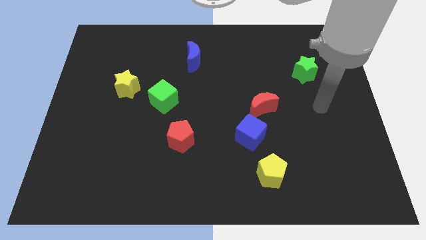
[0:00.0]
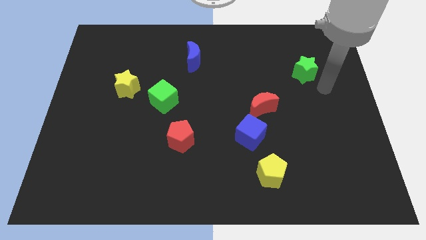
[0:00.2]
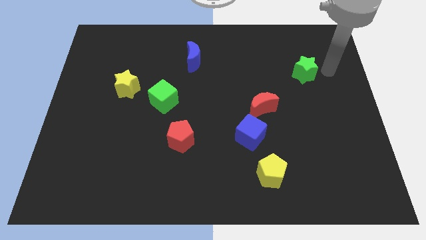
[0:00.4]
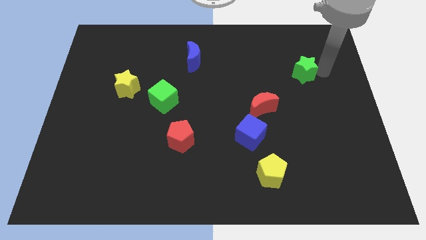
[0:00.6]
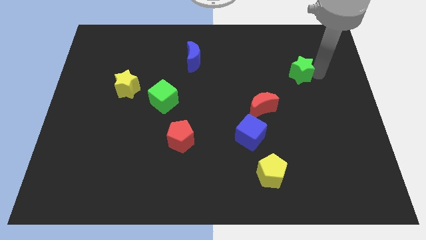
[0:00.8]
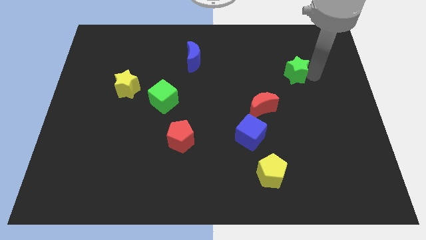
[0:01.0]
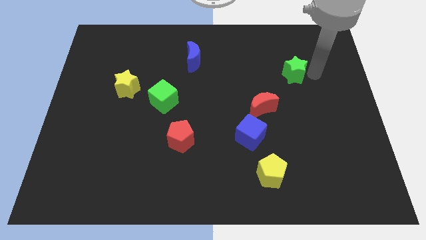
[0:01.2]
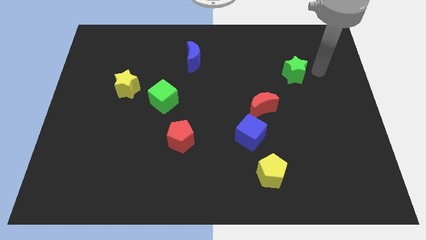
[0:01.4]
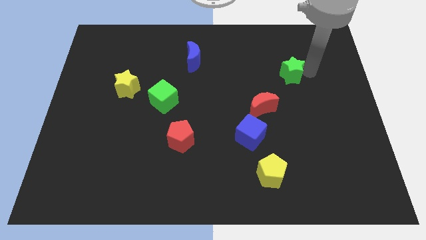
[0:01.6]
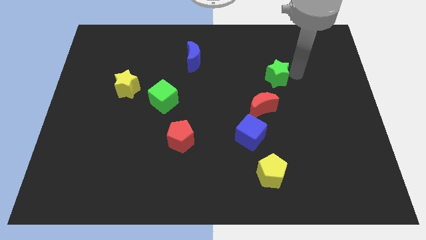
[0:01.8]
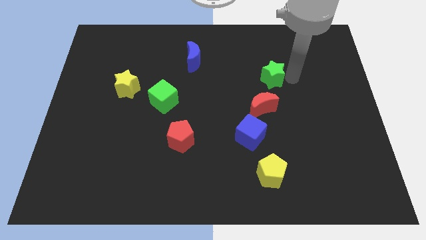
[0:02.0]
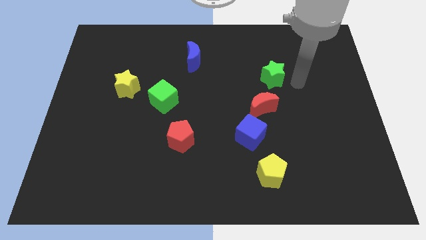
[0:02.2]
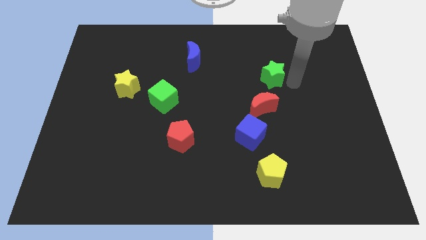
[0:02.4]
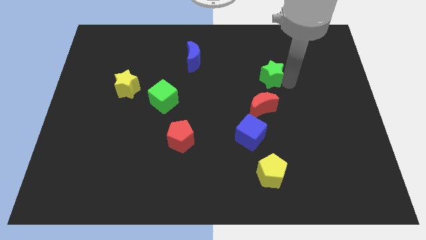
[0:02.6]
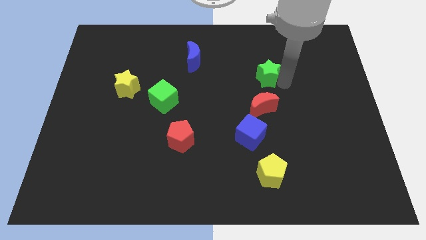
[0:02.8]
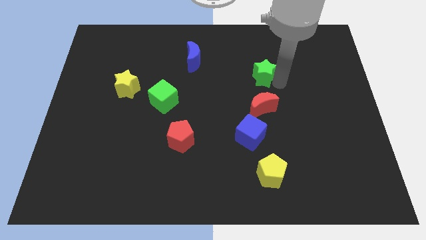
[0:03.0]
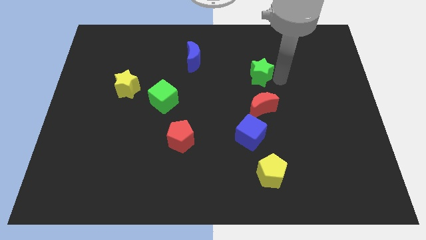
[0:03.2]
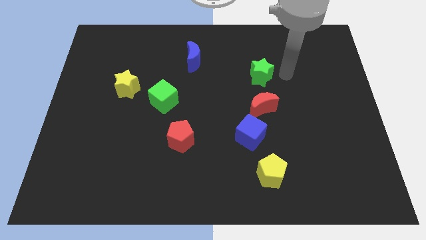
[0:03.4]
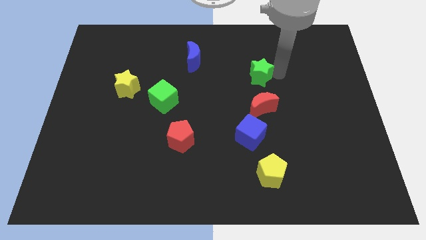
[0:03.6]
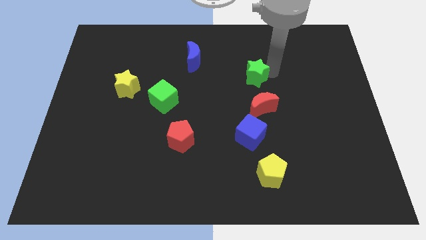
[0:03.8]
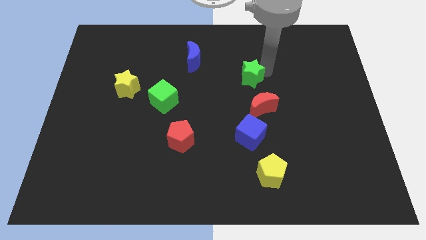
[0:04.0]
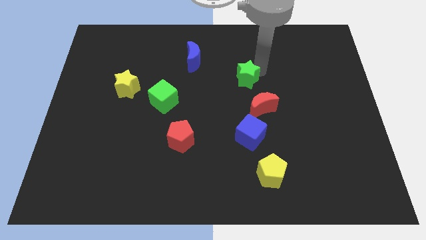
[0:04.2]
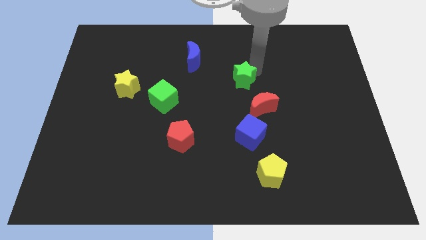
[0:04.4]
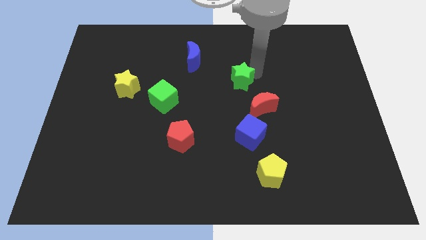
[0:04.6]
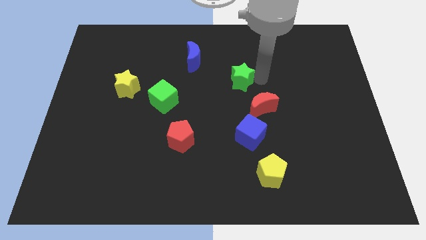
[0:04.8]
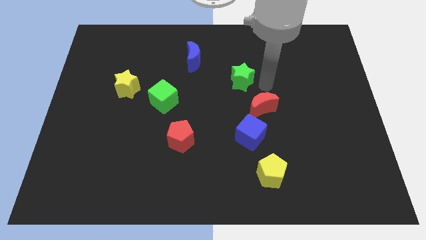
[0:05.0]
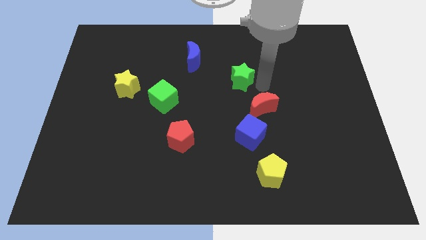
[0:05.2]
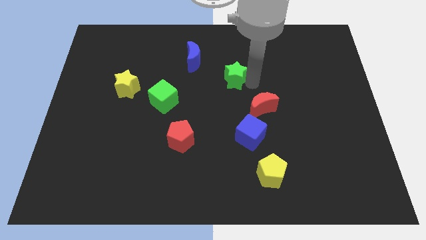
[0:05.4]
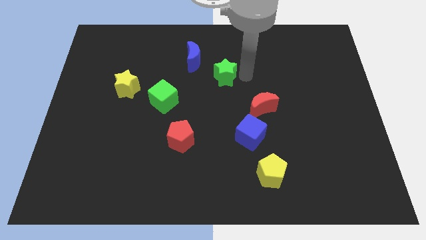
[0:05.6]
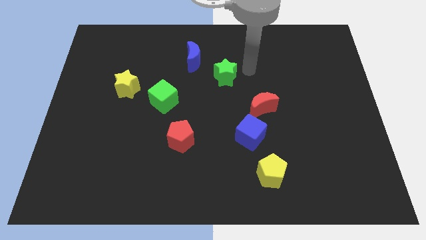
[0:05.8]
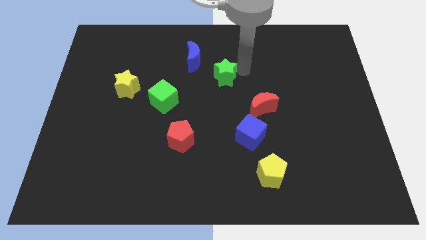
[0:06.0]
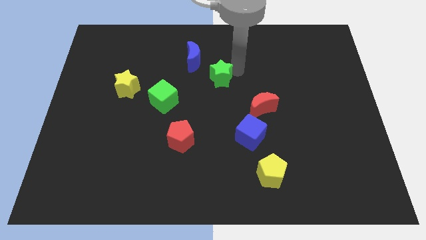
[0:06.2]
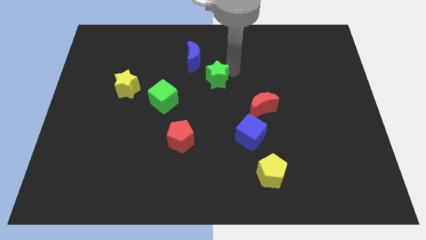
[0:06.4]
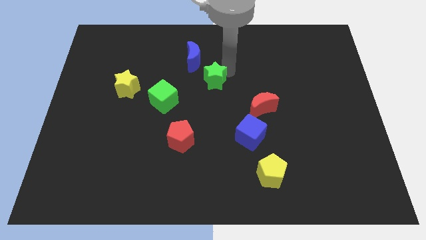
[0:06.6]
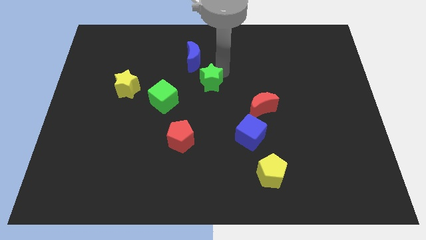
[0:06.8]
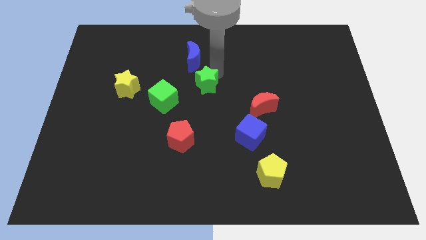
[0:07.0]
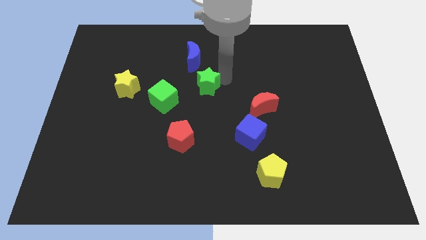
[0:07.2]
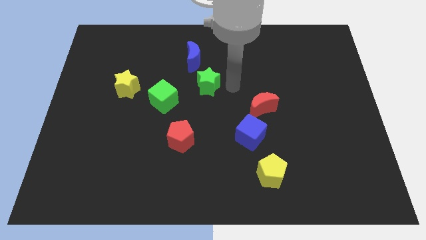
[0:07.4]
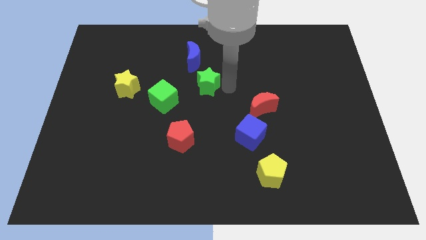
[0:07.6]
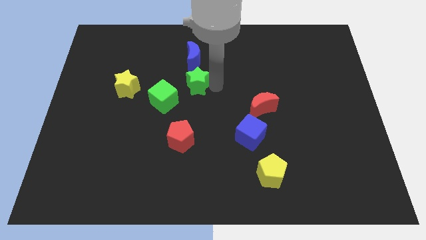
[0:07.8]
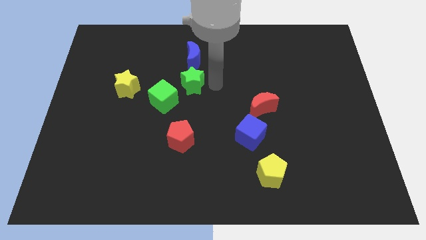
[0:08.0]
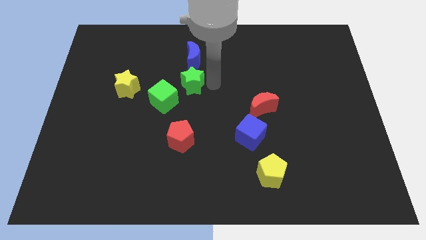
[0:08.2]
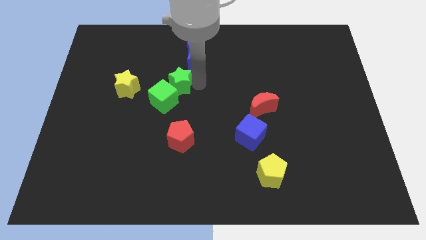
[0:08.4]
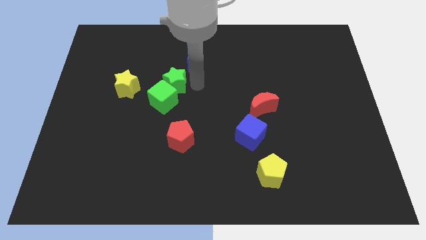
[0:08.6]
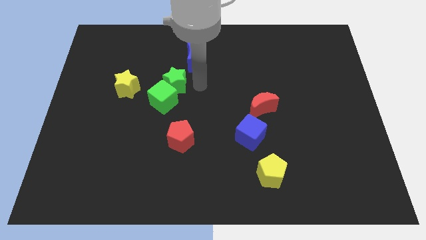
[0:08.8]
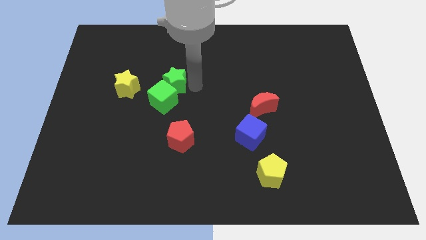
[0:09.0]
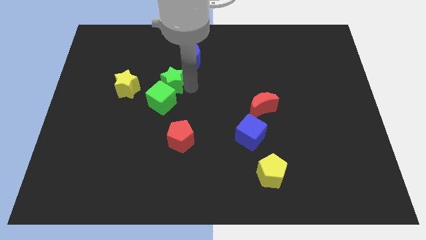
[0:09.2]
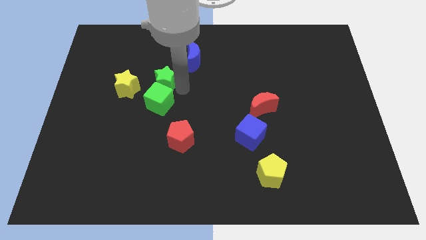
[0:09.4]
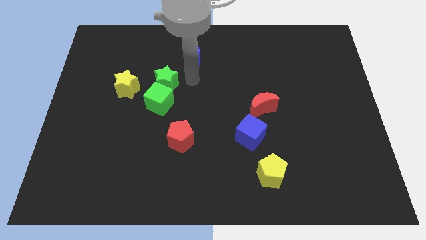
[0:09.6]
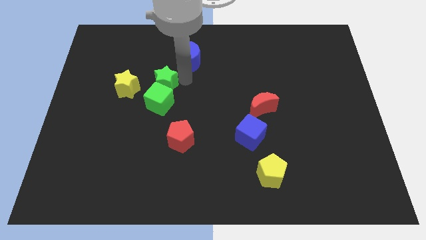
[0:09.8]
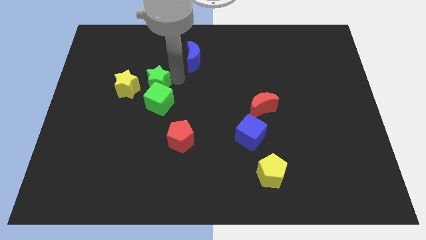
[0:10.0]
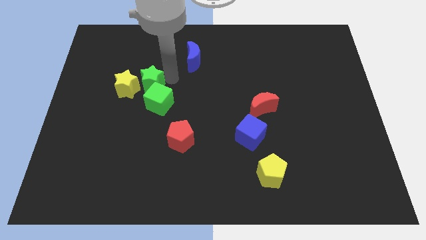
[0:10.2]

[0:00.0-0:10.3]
put the green star towards the yellow star

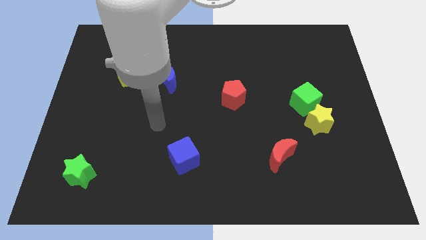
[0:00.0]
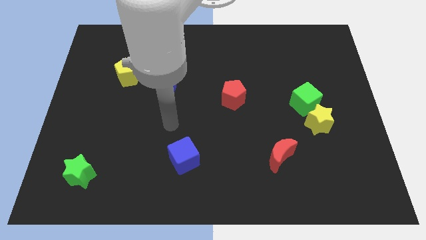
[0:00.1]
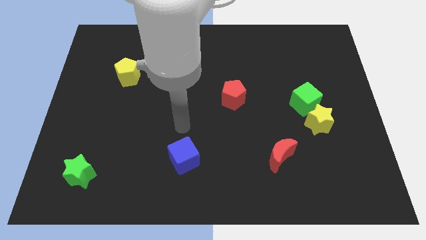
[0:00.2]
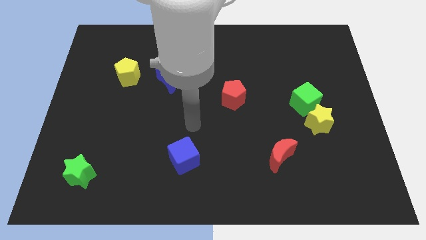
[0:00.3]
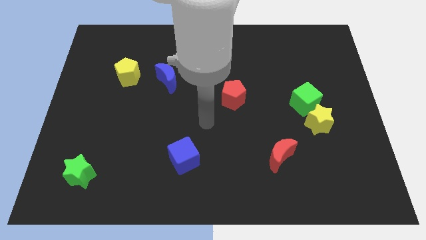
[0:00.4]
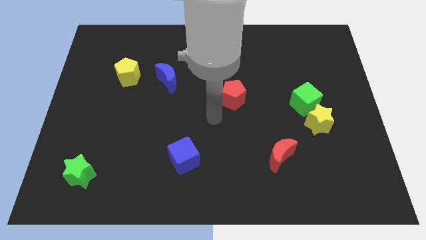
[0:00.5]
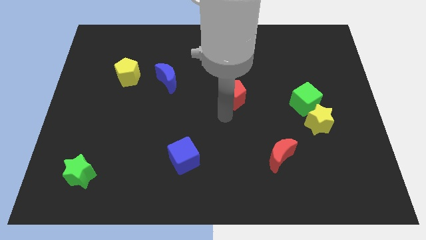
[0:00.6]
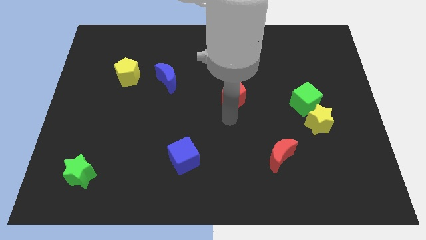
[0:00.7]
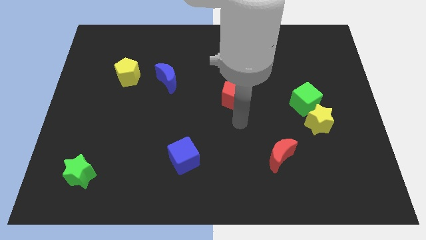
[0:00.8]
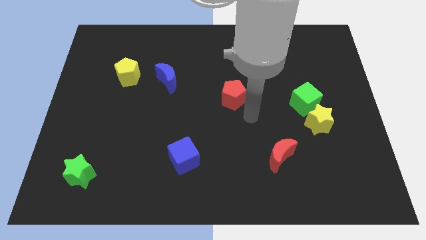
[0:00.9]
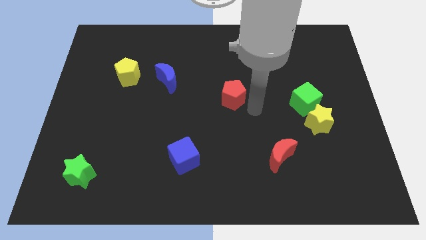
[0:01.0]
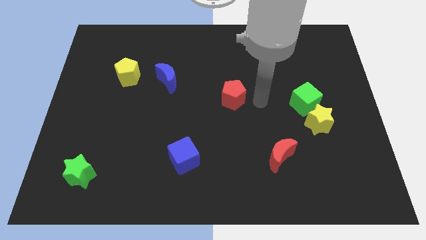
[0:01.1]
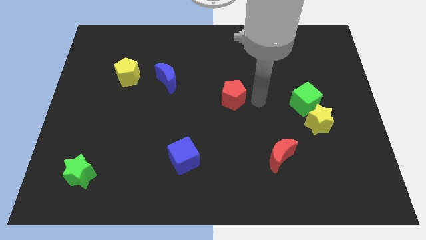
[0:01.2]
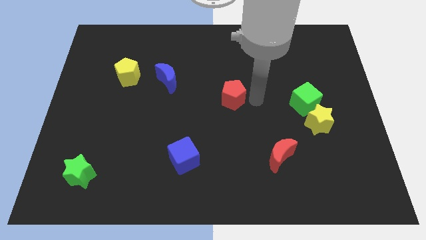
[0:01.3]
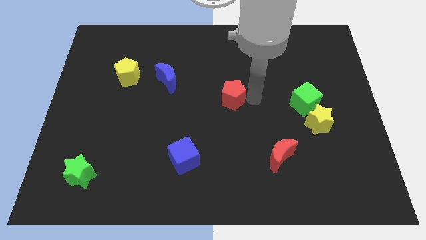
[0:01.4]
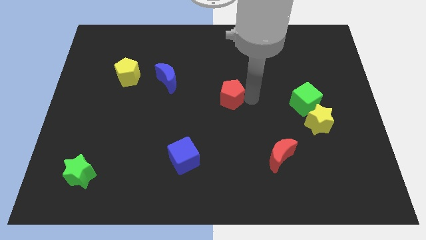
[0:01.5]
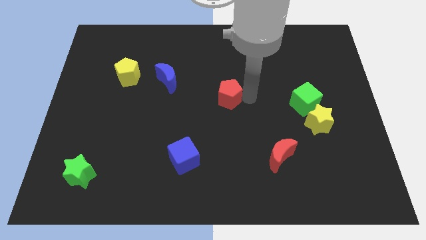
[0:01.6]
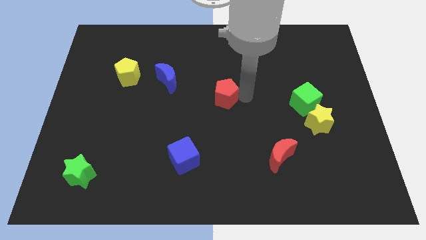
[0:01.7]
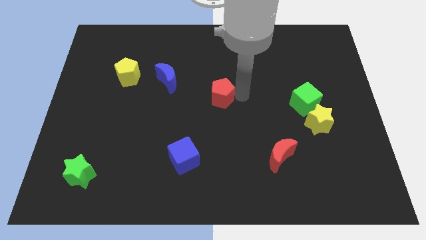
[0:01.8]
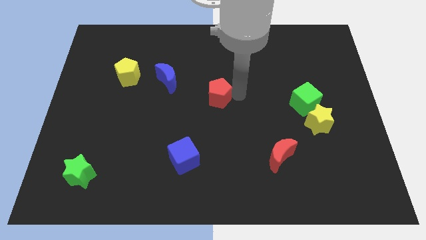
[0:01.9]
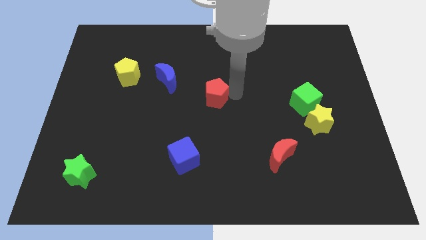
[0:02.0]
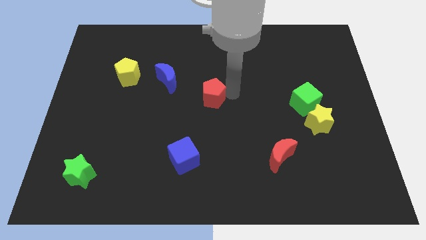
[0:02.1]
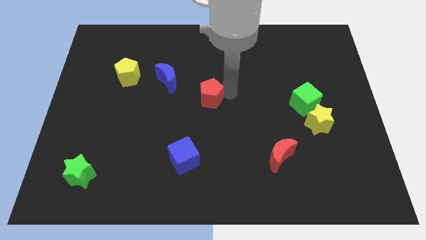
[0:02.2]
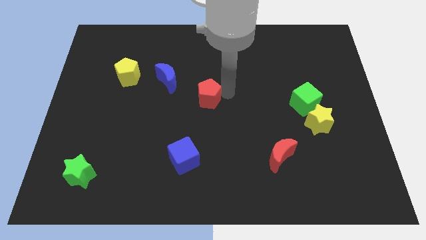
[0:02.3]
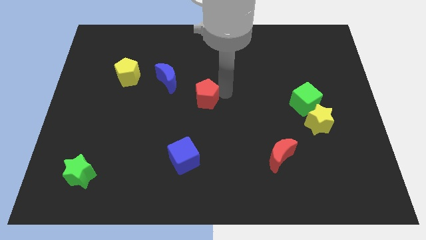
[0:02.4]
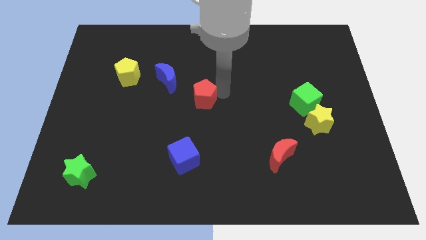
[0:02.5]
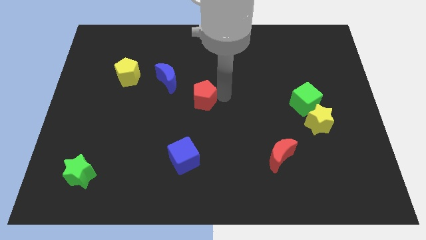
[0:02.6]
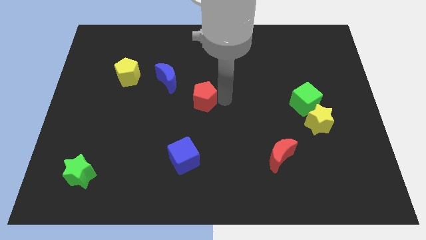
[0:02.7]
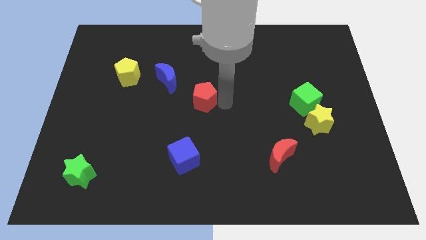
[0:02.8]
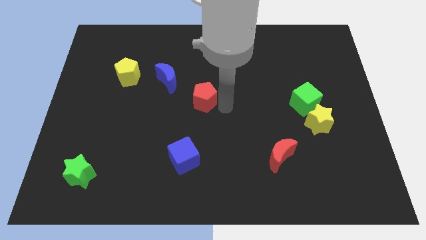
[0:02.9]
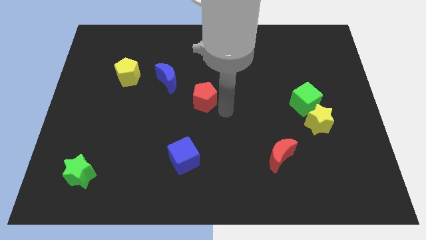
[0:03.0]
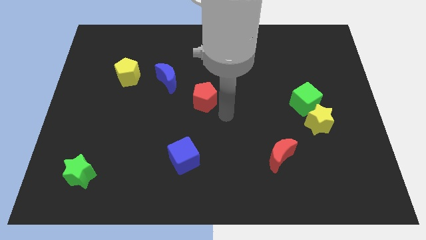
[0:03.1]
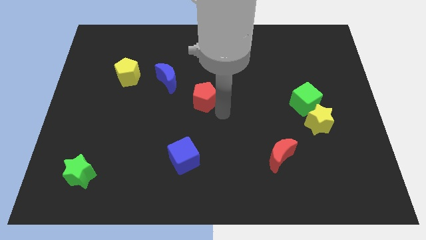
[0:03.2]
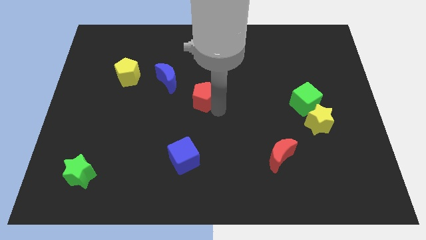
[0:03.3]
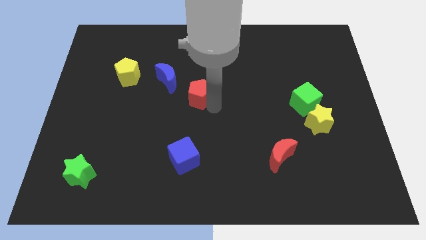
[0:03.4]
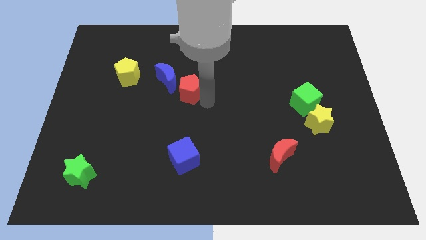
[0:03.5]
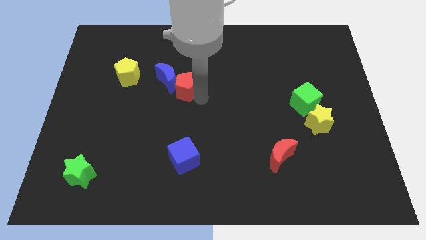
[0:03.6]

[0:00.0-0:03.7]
put the red pentagon close to the blue moon
